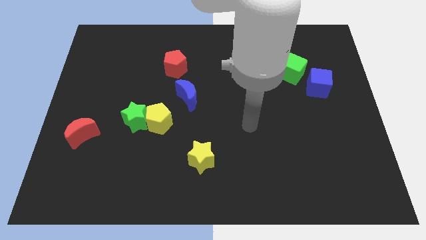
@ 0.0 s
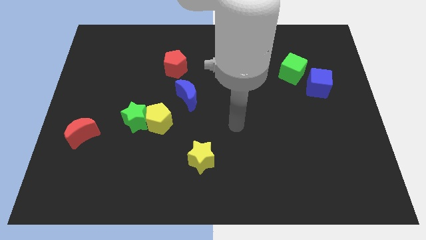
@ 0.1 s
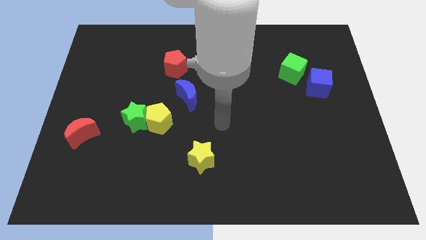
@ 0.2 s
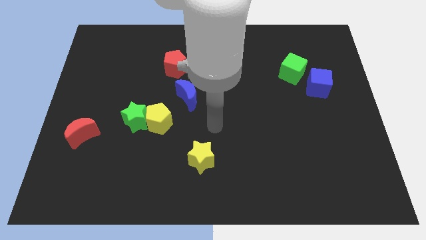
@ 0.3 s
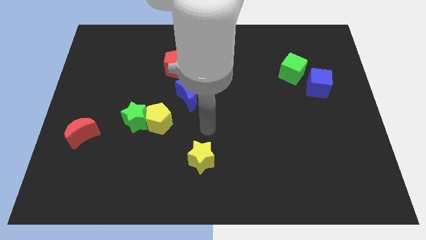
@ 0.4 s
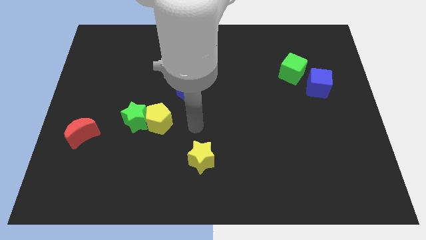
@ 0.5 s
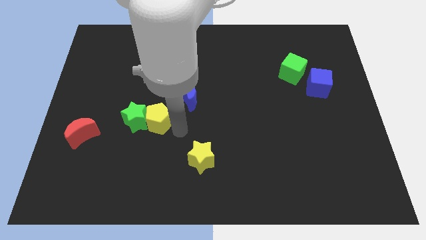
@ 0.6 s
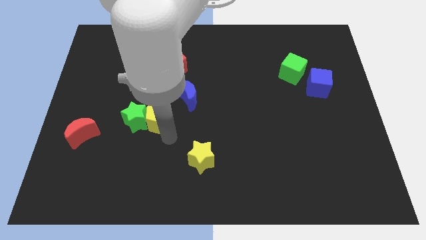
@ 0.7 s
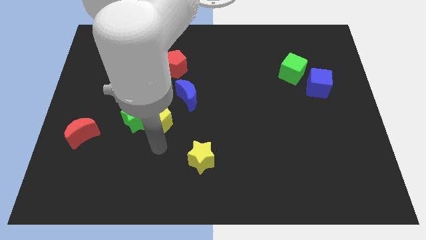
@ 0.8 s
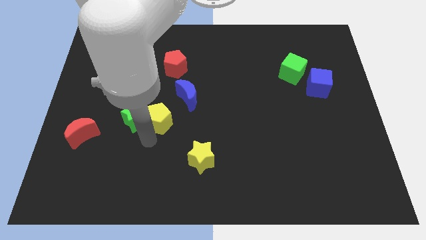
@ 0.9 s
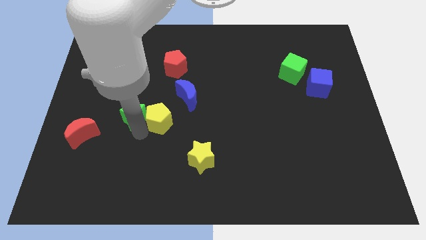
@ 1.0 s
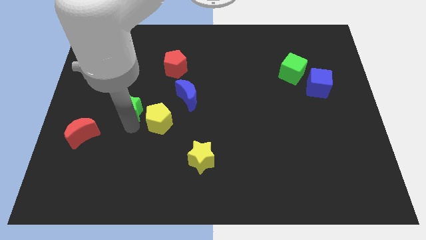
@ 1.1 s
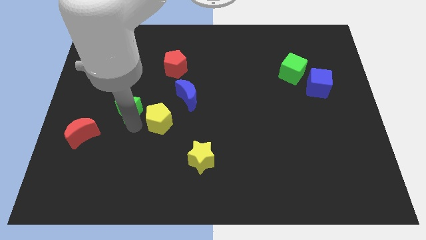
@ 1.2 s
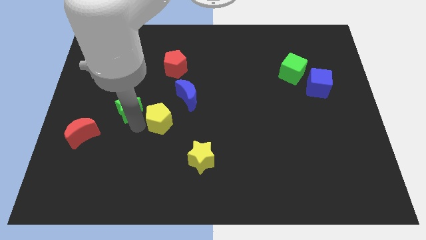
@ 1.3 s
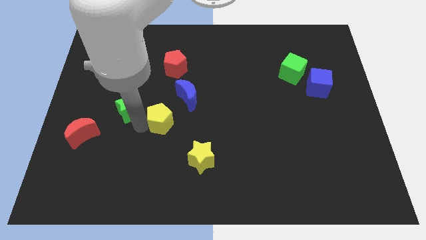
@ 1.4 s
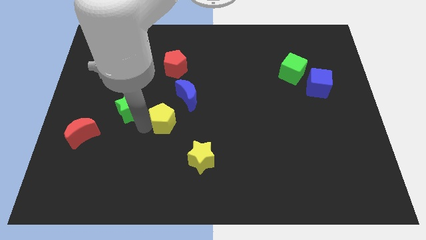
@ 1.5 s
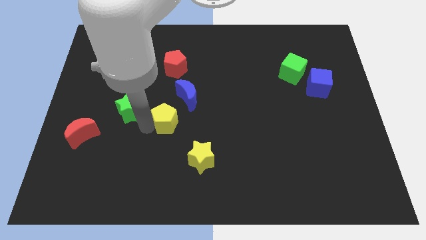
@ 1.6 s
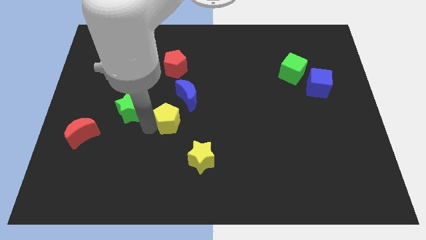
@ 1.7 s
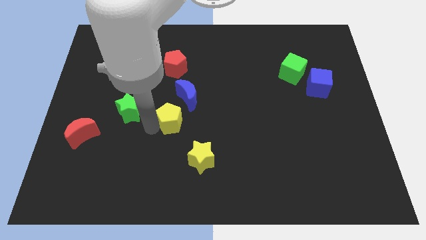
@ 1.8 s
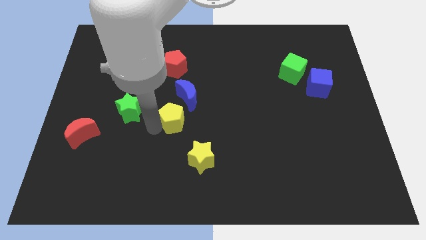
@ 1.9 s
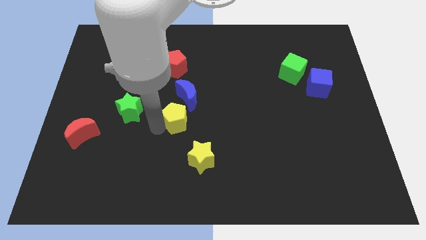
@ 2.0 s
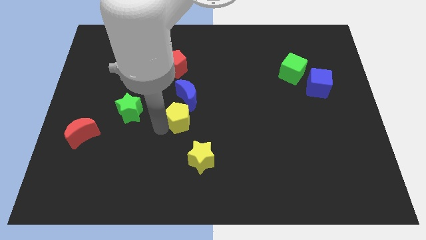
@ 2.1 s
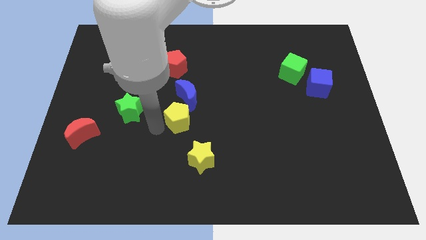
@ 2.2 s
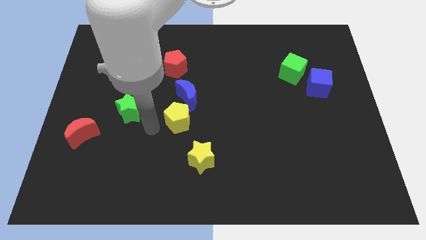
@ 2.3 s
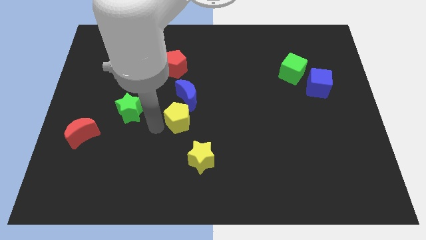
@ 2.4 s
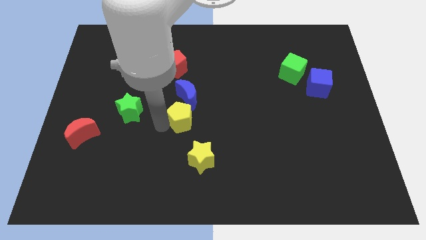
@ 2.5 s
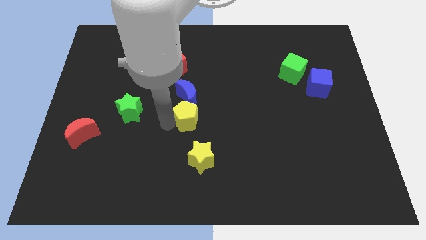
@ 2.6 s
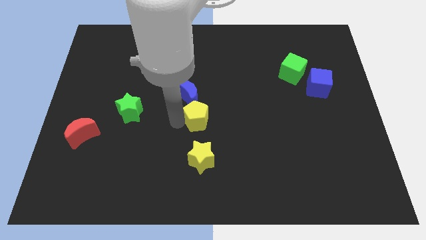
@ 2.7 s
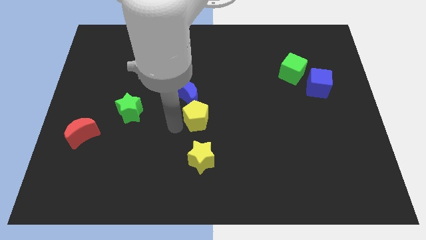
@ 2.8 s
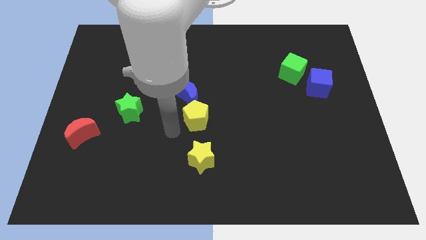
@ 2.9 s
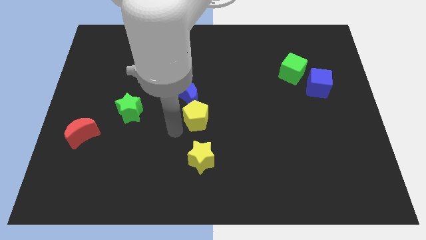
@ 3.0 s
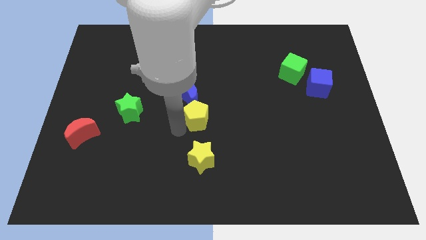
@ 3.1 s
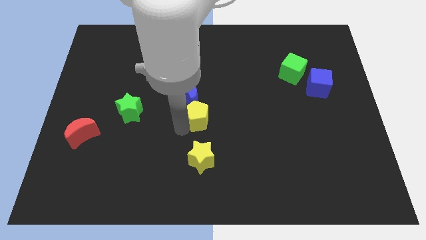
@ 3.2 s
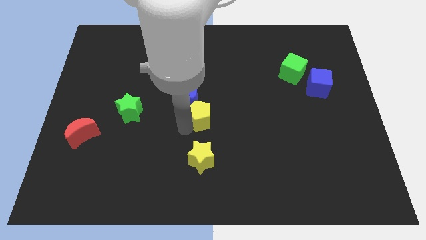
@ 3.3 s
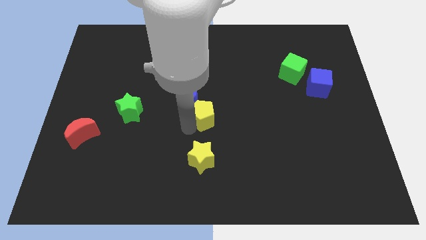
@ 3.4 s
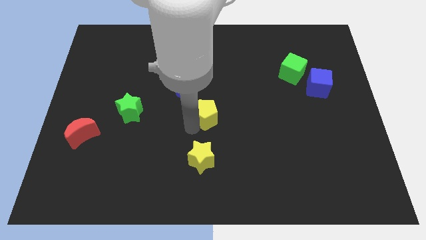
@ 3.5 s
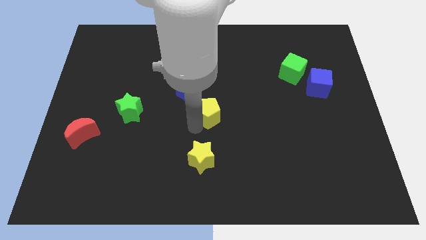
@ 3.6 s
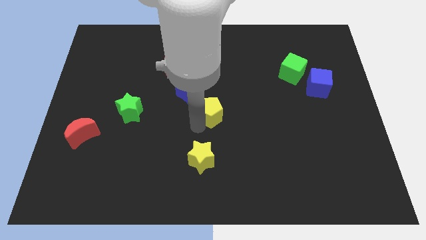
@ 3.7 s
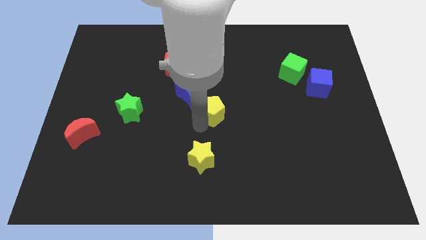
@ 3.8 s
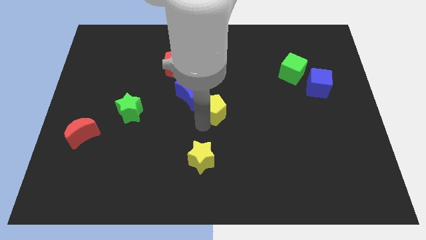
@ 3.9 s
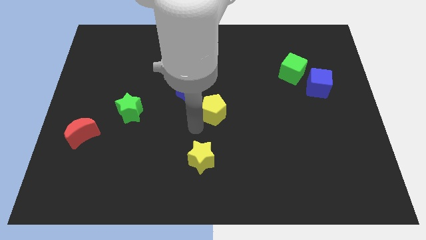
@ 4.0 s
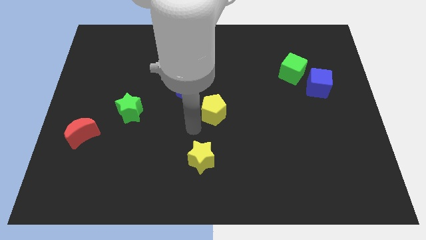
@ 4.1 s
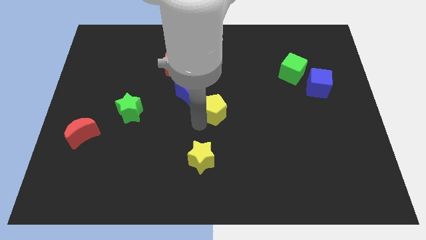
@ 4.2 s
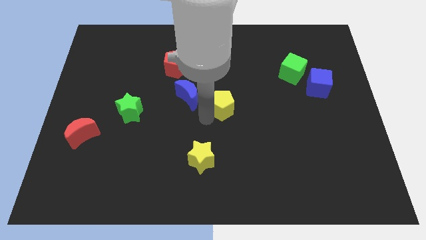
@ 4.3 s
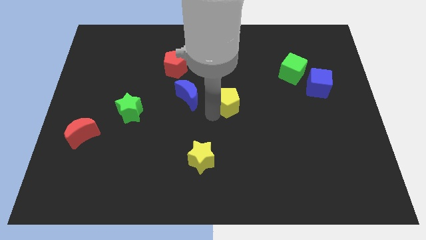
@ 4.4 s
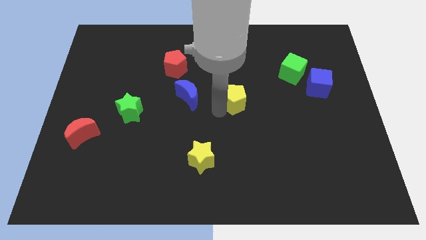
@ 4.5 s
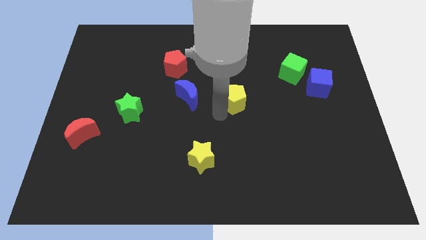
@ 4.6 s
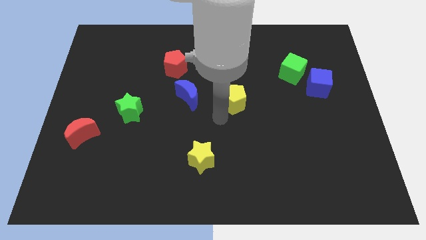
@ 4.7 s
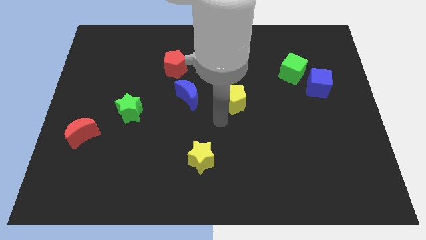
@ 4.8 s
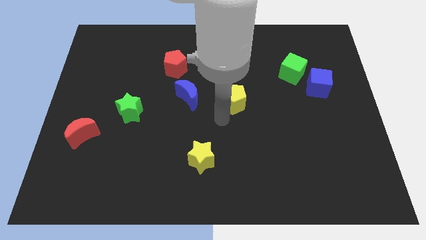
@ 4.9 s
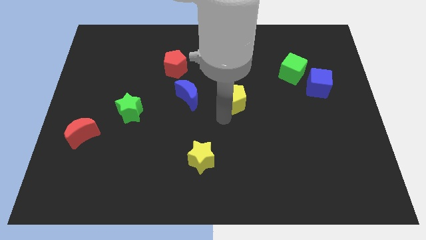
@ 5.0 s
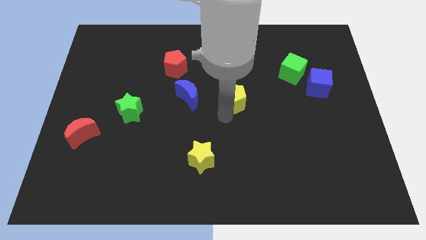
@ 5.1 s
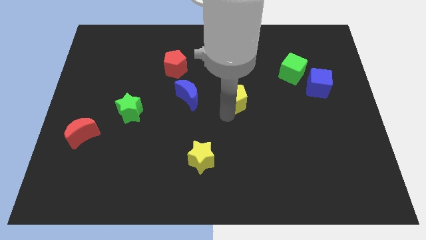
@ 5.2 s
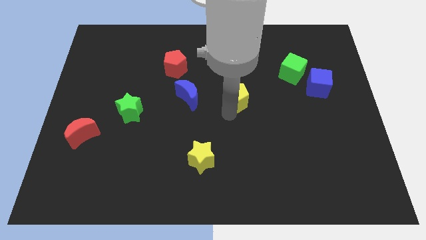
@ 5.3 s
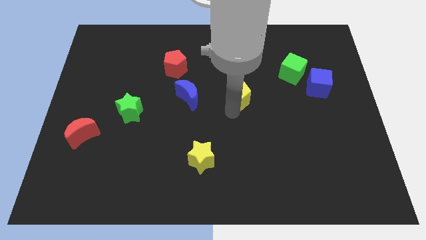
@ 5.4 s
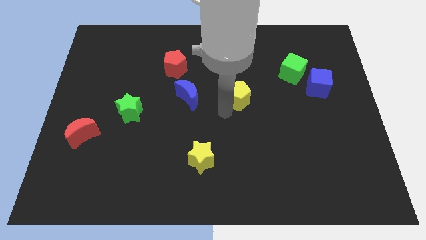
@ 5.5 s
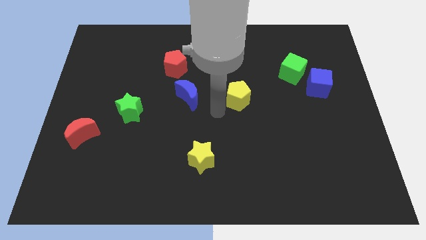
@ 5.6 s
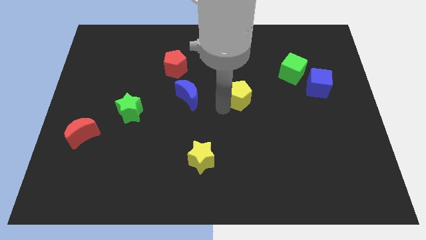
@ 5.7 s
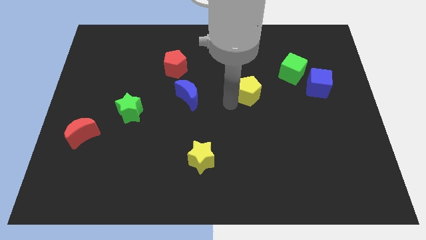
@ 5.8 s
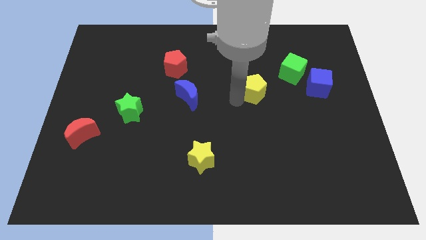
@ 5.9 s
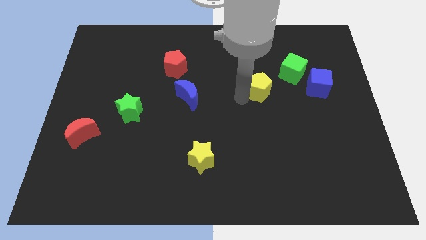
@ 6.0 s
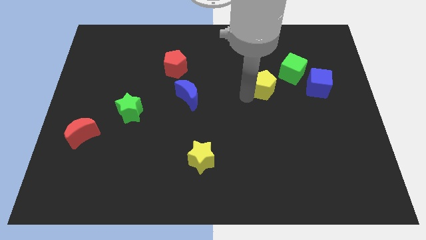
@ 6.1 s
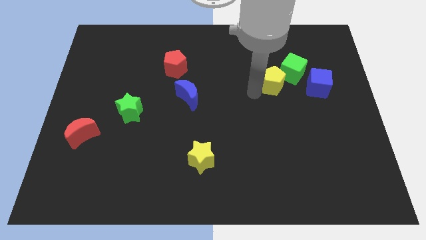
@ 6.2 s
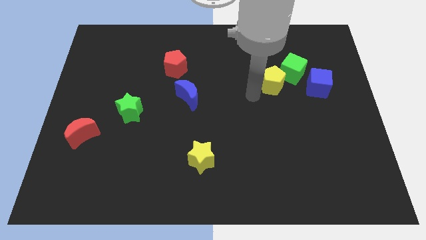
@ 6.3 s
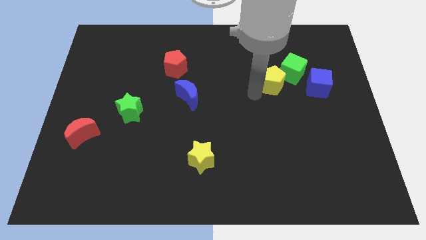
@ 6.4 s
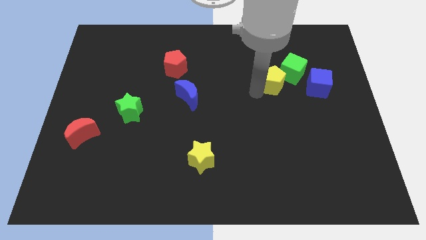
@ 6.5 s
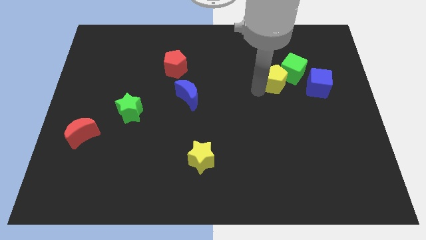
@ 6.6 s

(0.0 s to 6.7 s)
put the yellow pentagon to the green cube

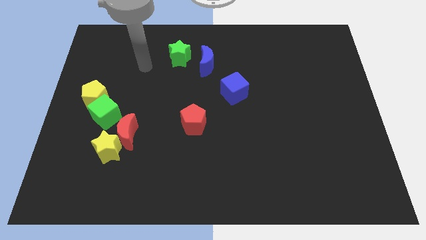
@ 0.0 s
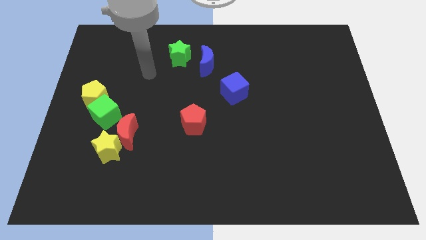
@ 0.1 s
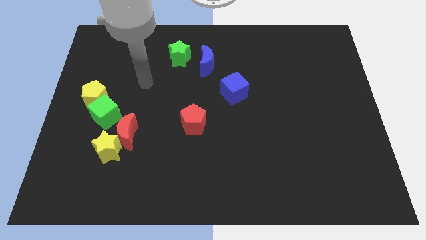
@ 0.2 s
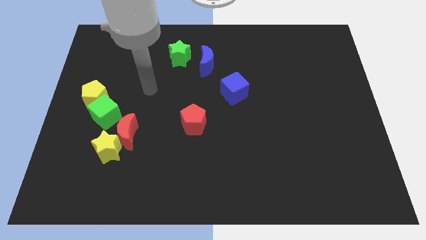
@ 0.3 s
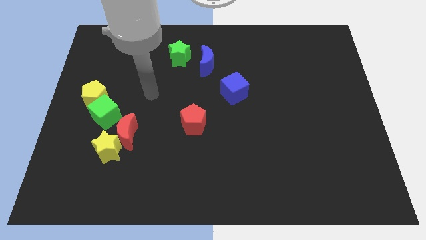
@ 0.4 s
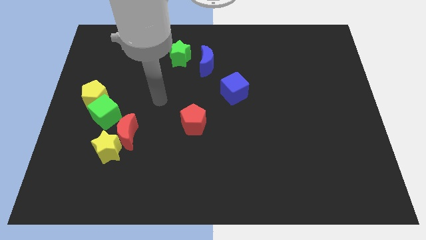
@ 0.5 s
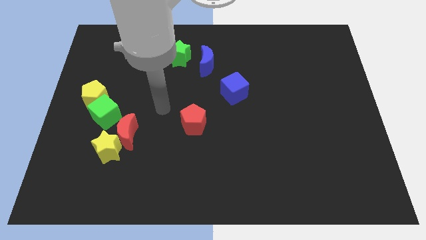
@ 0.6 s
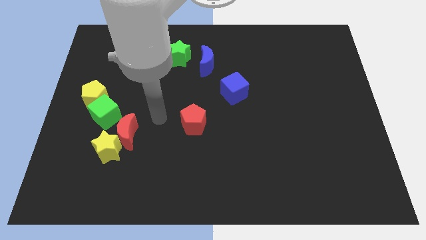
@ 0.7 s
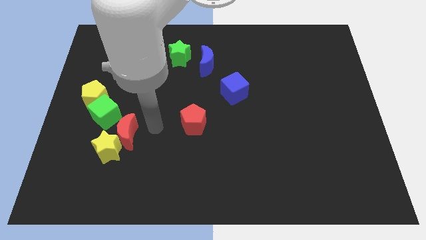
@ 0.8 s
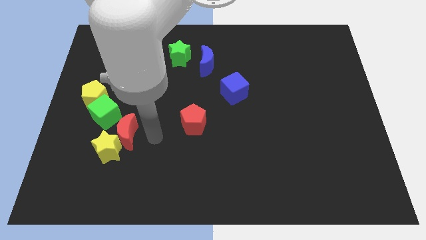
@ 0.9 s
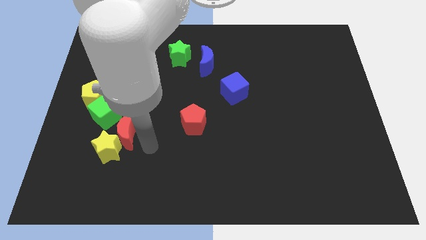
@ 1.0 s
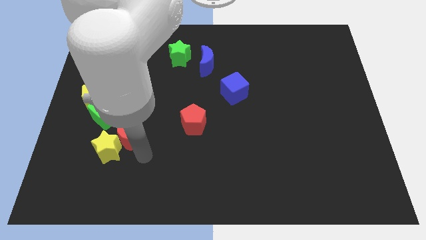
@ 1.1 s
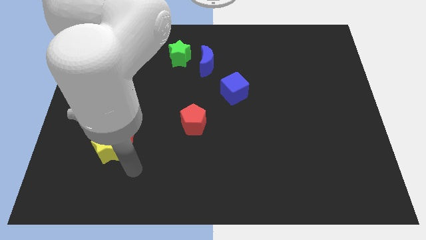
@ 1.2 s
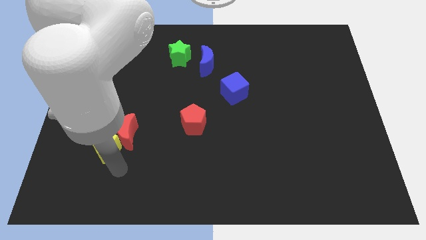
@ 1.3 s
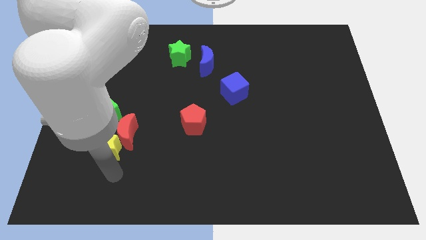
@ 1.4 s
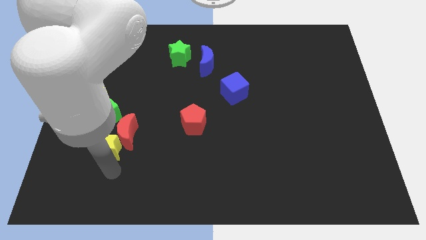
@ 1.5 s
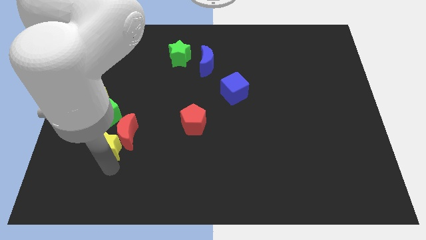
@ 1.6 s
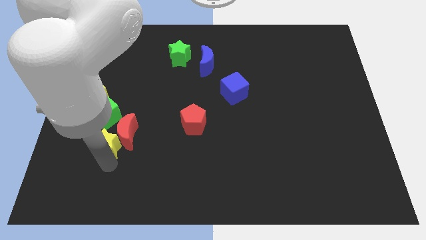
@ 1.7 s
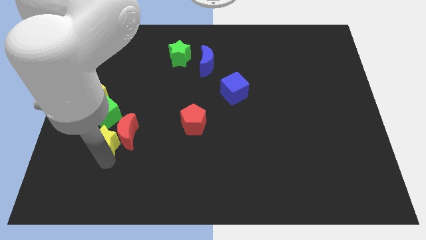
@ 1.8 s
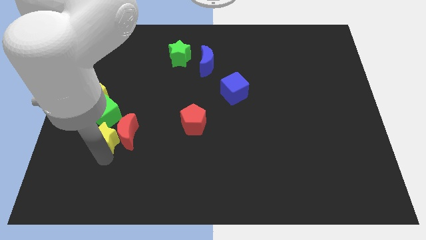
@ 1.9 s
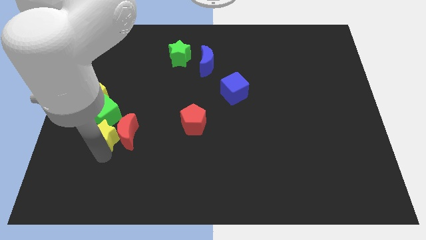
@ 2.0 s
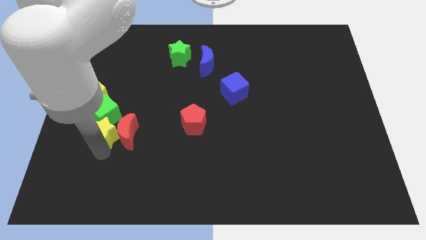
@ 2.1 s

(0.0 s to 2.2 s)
put the yellow star next to the green cube
